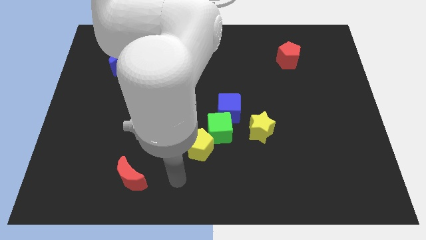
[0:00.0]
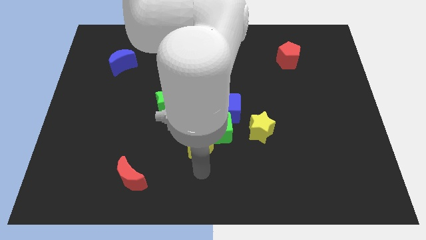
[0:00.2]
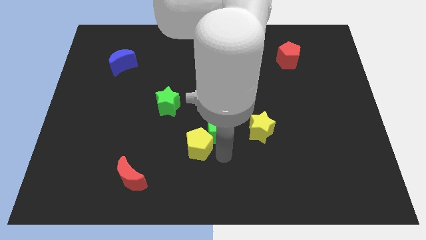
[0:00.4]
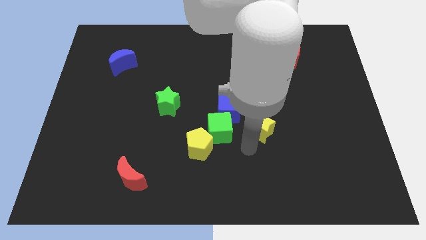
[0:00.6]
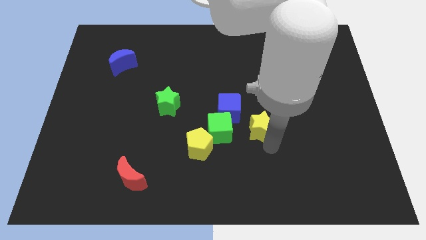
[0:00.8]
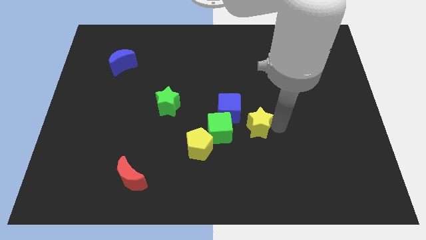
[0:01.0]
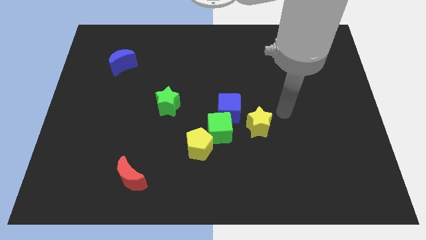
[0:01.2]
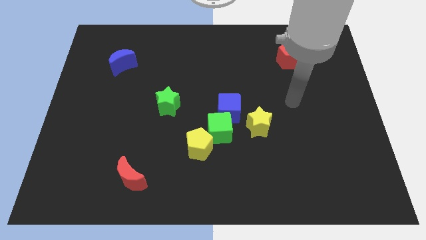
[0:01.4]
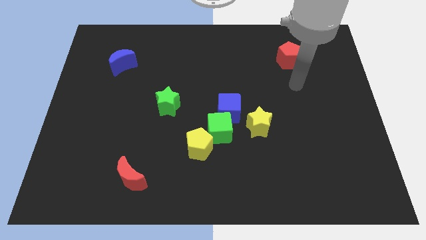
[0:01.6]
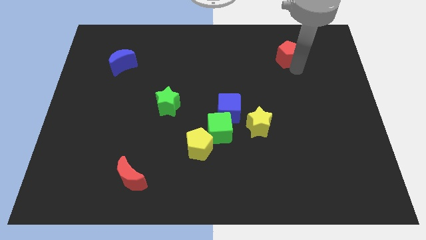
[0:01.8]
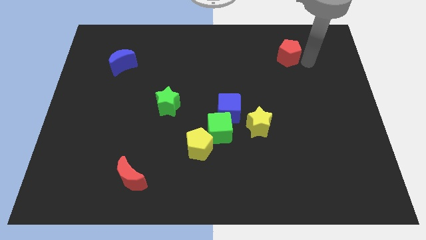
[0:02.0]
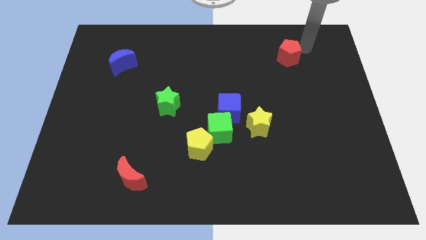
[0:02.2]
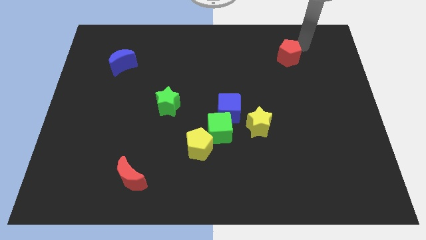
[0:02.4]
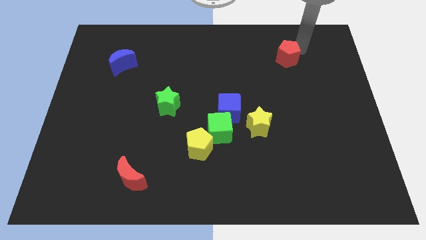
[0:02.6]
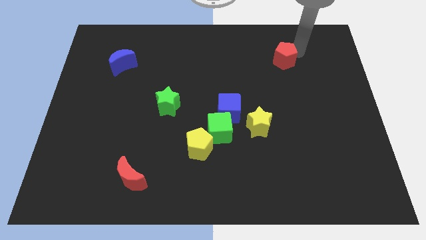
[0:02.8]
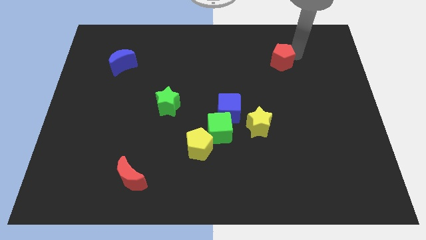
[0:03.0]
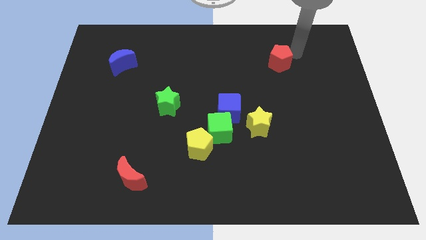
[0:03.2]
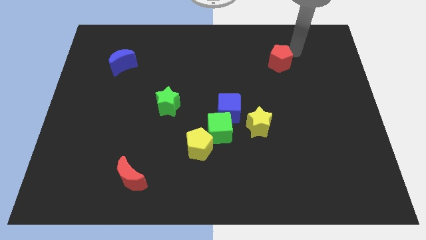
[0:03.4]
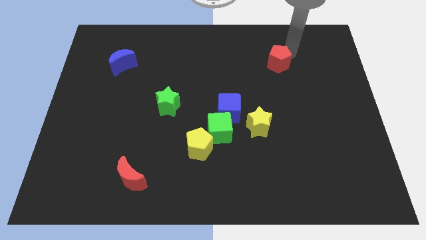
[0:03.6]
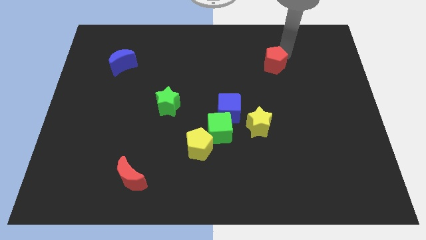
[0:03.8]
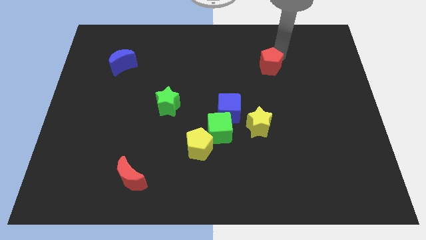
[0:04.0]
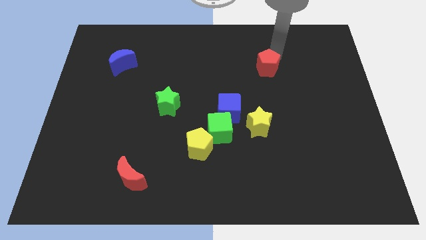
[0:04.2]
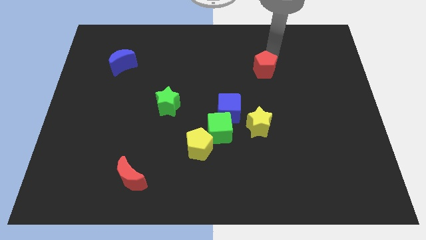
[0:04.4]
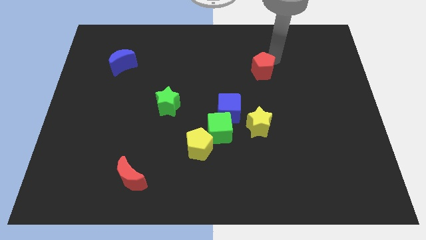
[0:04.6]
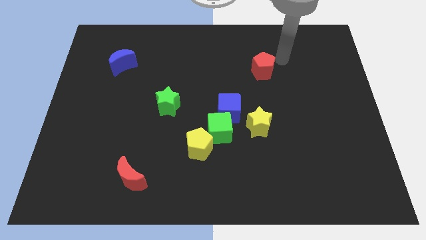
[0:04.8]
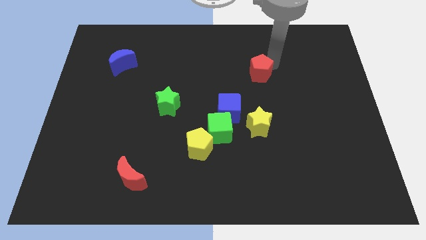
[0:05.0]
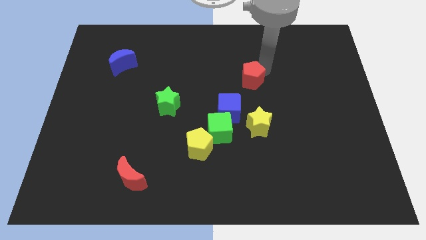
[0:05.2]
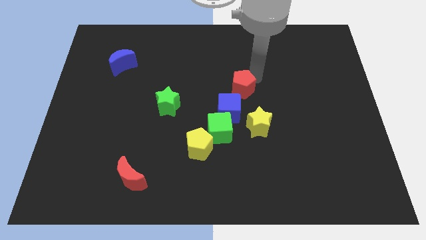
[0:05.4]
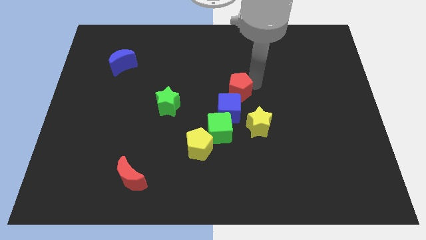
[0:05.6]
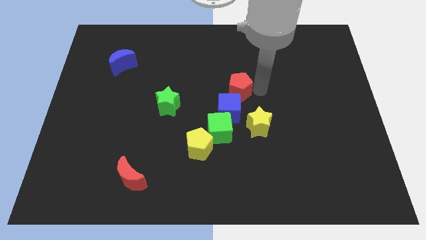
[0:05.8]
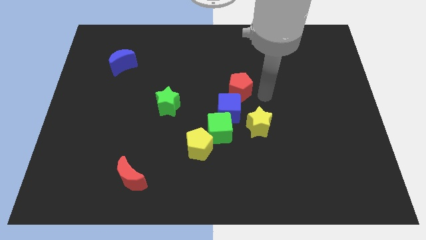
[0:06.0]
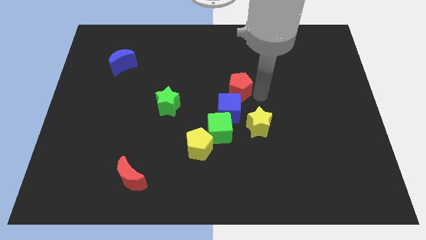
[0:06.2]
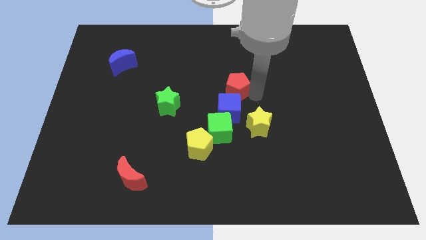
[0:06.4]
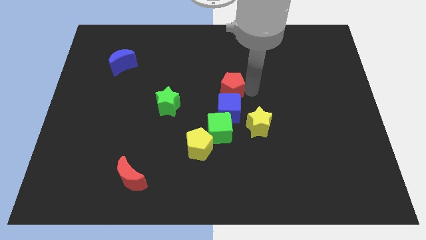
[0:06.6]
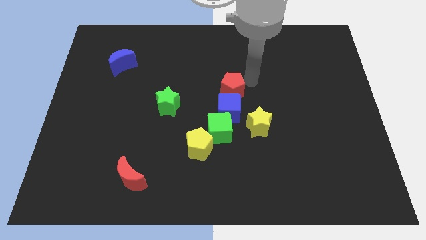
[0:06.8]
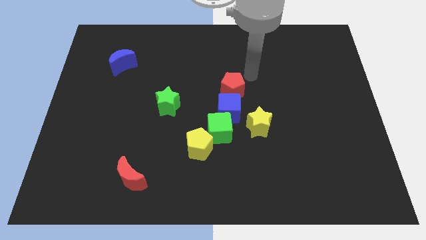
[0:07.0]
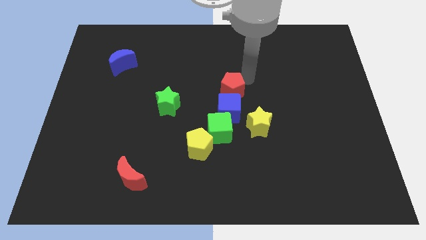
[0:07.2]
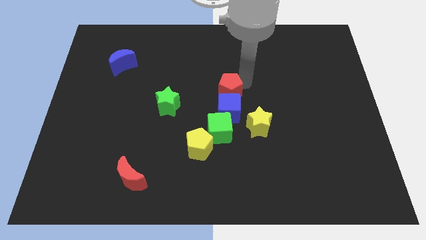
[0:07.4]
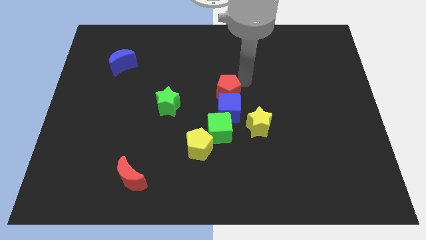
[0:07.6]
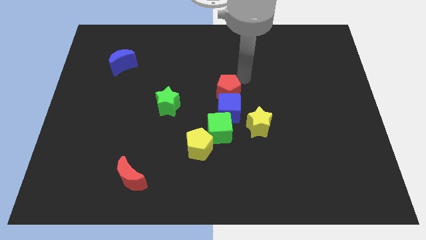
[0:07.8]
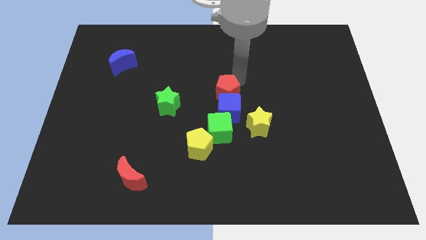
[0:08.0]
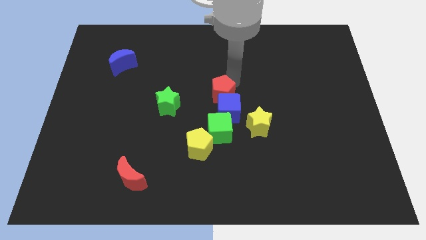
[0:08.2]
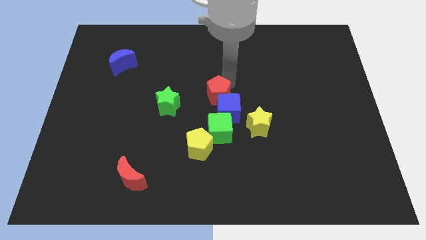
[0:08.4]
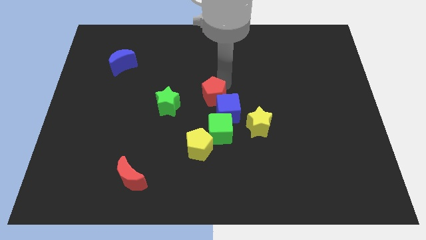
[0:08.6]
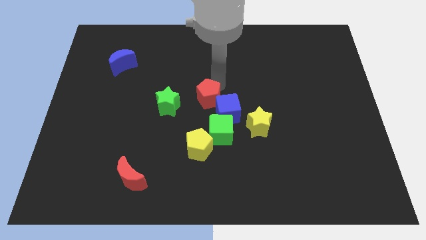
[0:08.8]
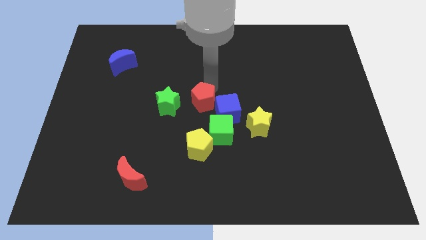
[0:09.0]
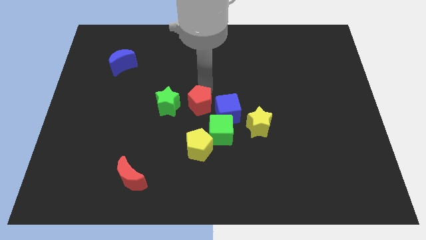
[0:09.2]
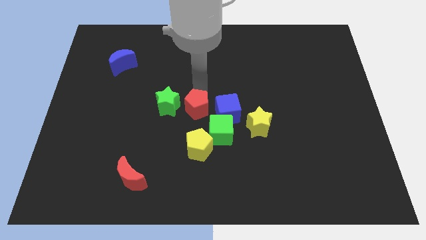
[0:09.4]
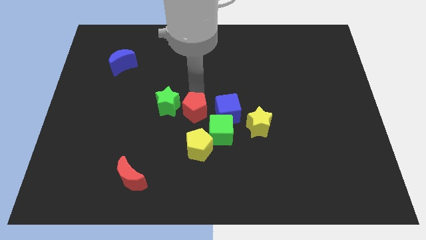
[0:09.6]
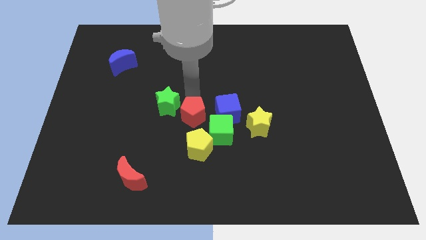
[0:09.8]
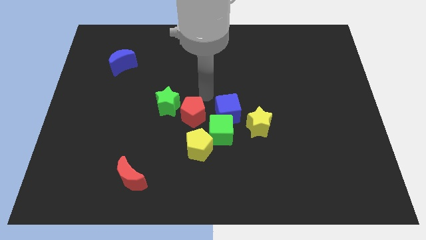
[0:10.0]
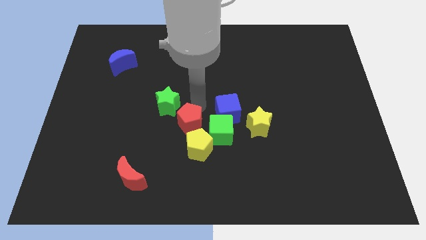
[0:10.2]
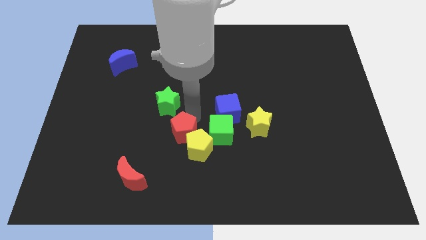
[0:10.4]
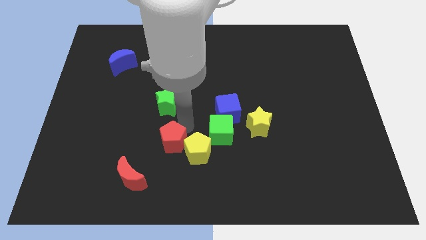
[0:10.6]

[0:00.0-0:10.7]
move the red pentagon diagonally up and to the right of the red moon

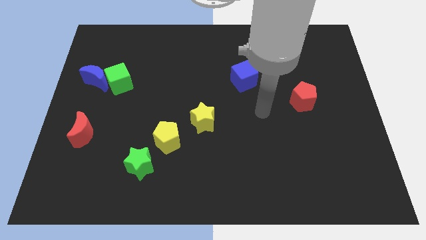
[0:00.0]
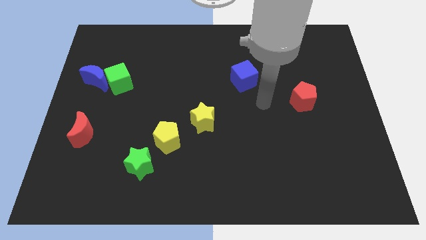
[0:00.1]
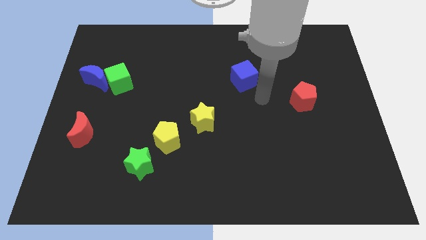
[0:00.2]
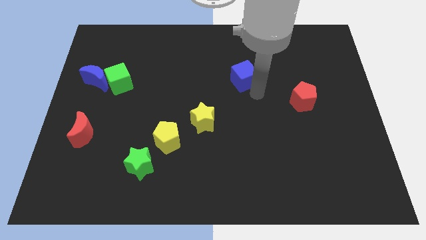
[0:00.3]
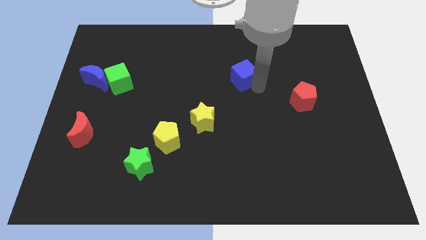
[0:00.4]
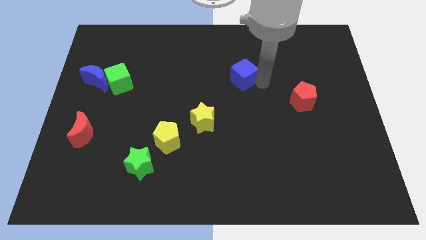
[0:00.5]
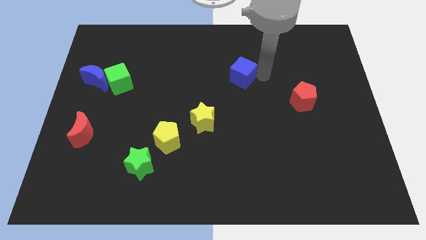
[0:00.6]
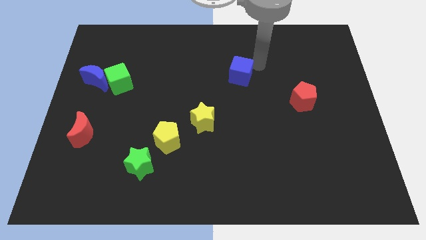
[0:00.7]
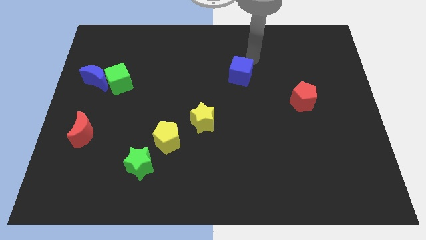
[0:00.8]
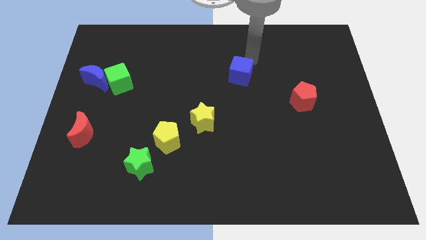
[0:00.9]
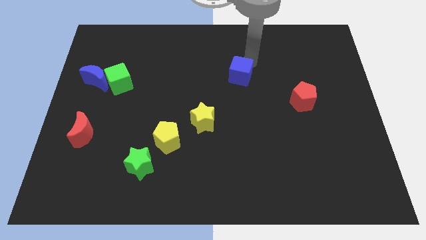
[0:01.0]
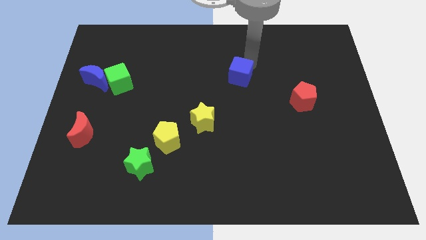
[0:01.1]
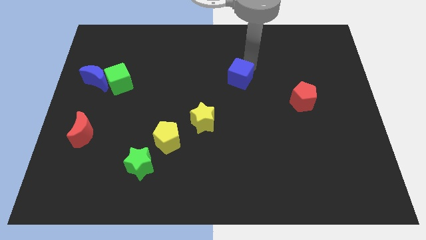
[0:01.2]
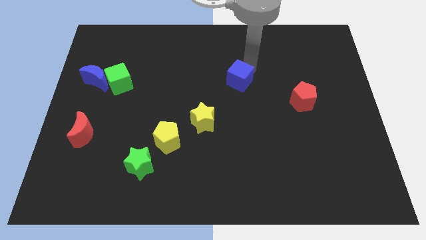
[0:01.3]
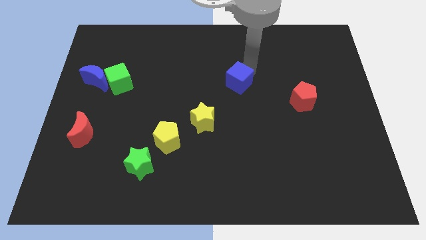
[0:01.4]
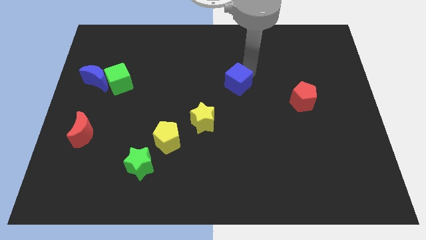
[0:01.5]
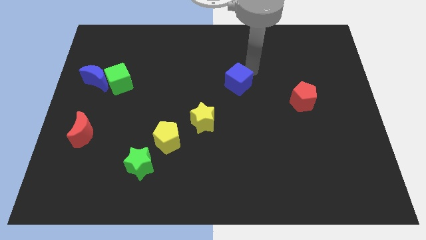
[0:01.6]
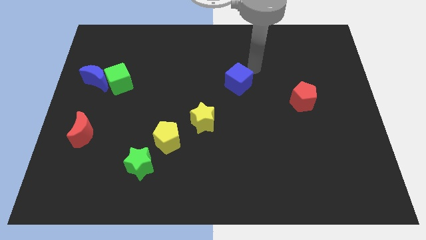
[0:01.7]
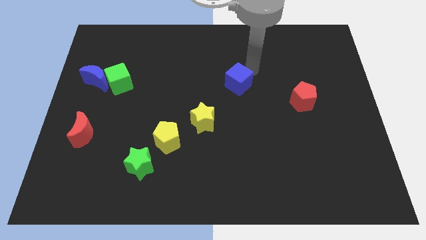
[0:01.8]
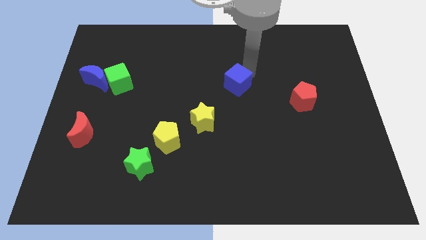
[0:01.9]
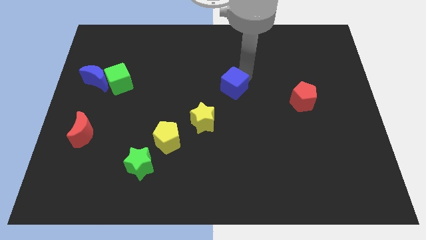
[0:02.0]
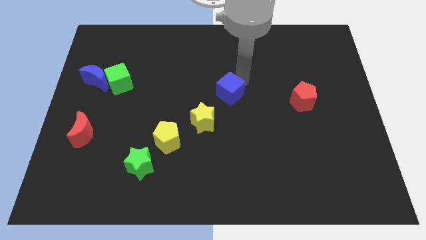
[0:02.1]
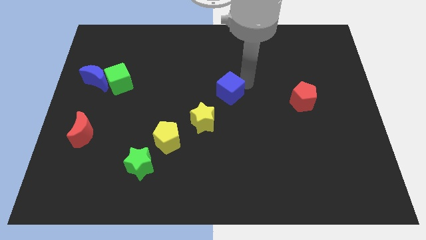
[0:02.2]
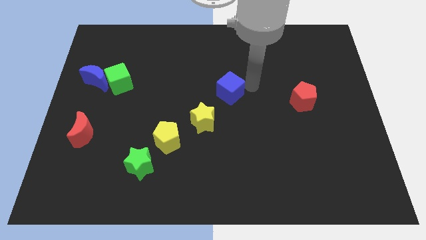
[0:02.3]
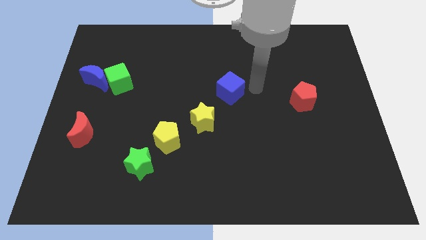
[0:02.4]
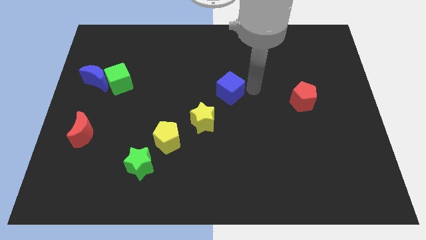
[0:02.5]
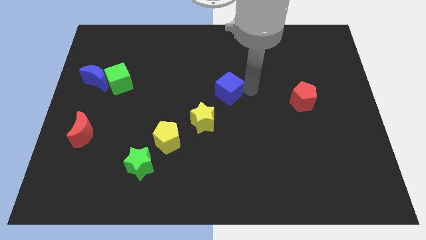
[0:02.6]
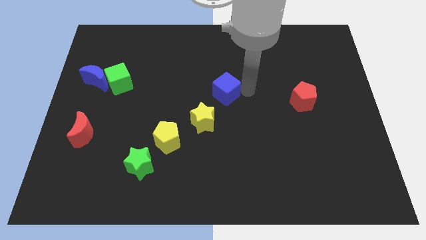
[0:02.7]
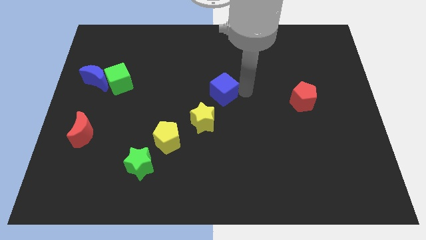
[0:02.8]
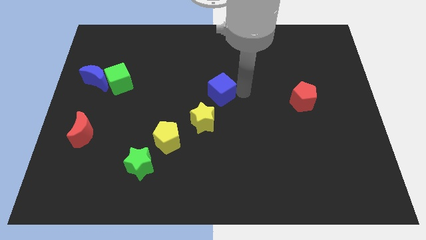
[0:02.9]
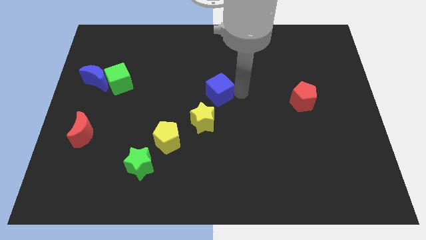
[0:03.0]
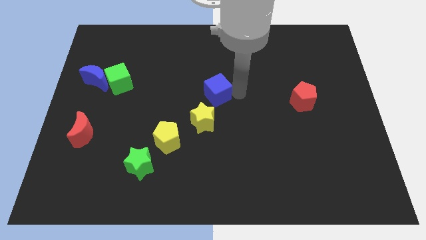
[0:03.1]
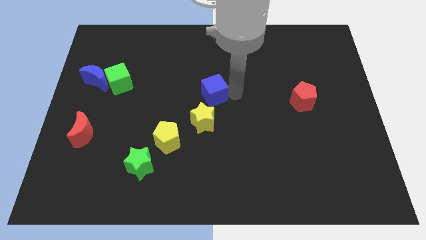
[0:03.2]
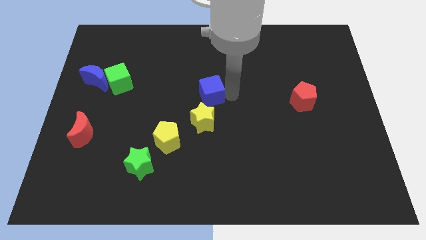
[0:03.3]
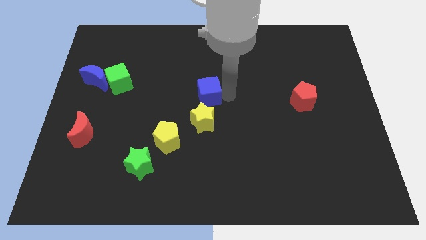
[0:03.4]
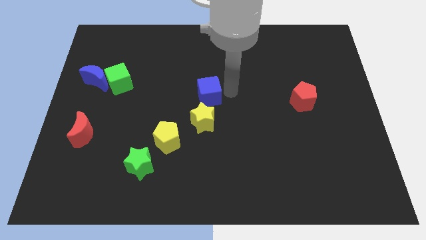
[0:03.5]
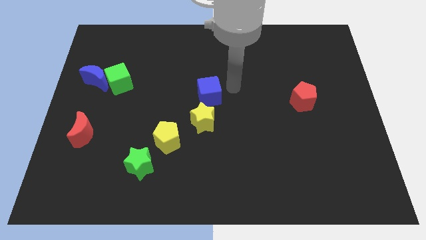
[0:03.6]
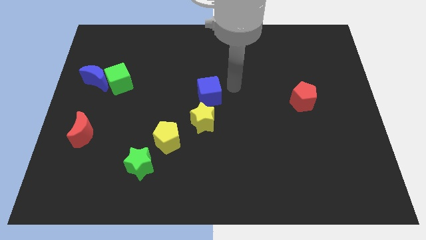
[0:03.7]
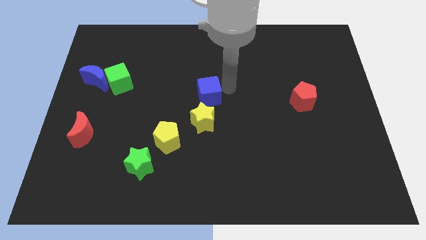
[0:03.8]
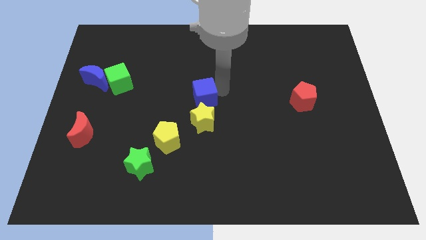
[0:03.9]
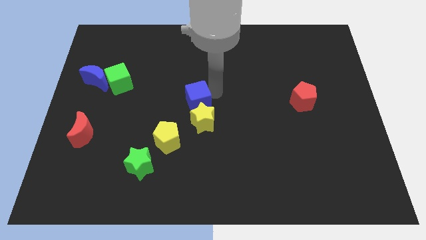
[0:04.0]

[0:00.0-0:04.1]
put the blue cube diagonally up and to the left of the yellow star
